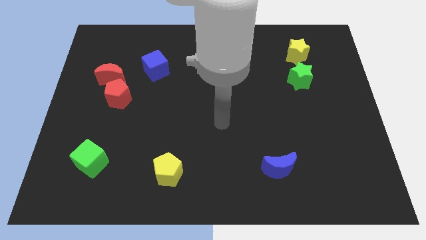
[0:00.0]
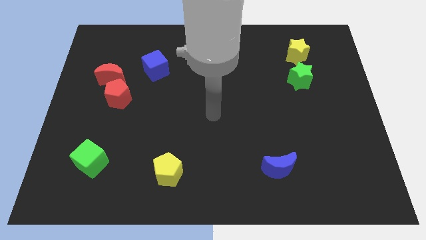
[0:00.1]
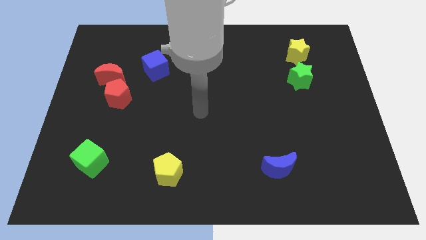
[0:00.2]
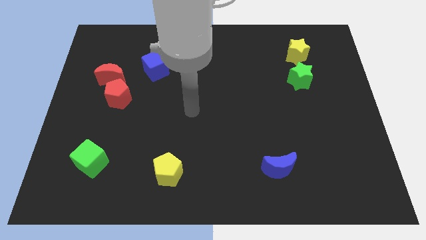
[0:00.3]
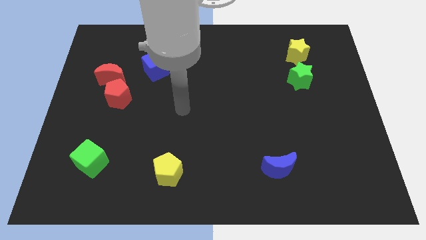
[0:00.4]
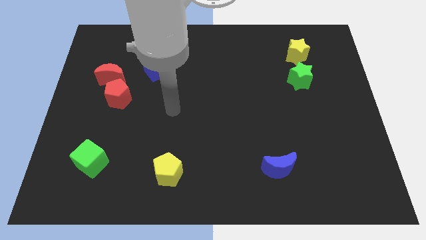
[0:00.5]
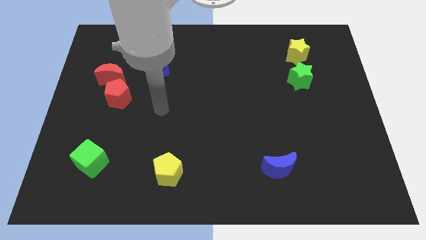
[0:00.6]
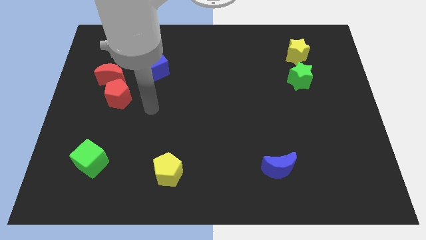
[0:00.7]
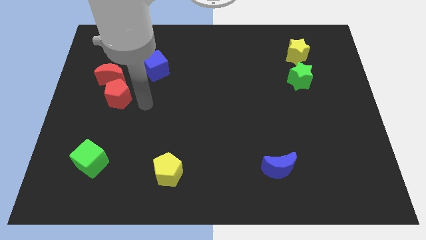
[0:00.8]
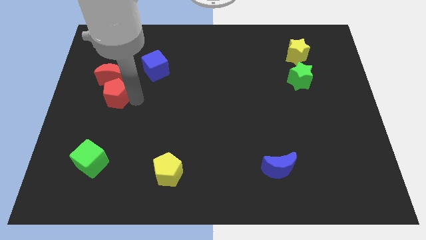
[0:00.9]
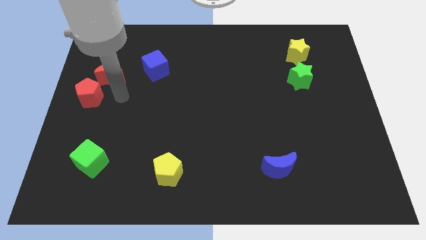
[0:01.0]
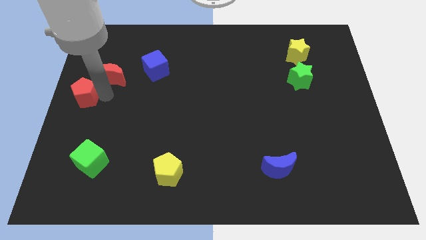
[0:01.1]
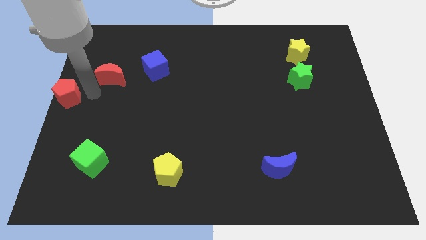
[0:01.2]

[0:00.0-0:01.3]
move the red moon away from the red pentagon

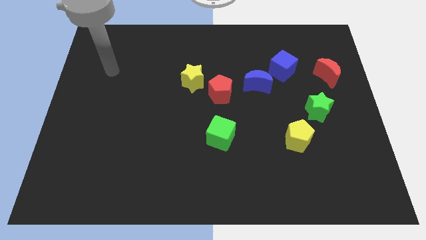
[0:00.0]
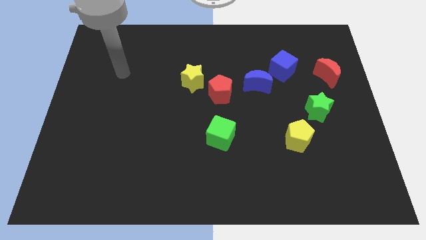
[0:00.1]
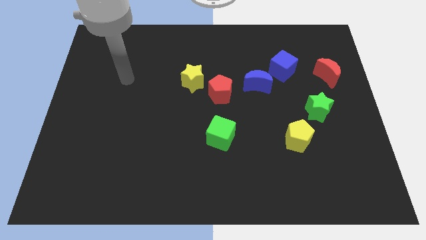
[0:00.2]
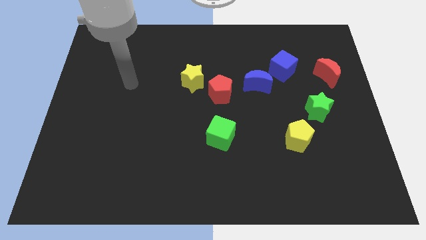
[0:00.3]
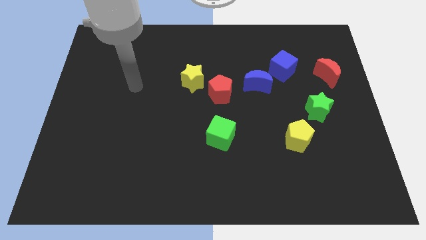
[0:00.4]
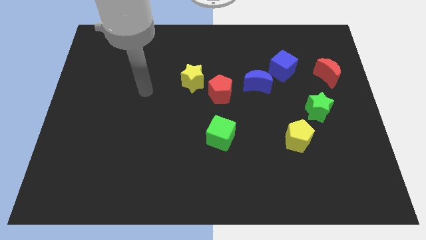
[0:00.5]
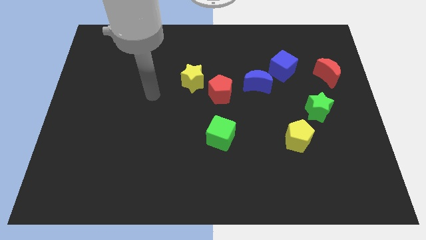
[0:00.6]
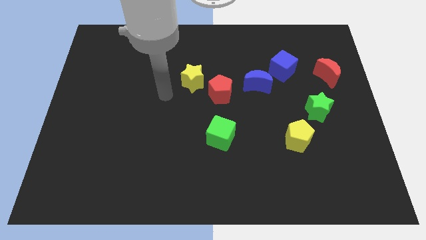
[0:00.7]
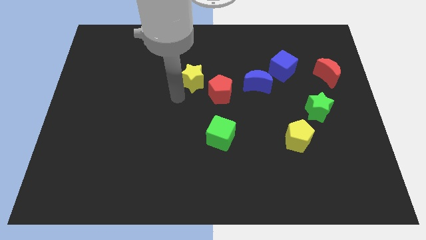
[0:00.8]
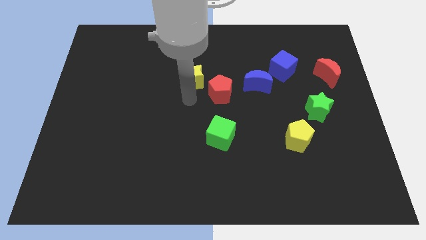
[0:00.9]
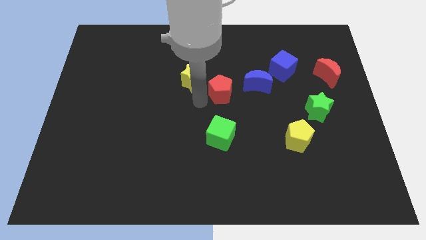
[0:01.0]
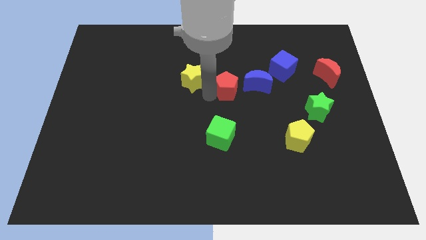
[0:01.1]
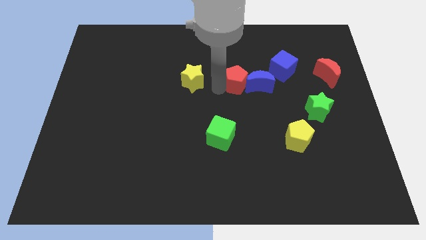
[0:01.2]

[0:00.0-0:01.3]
pull the yellow star apart from the red pentagon

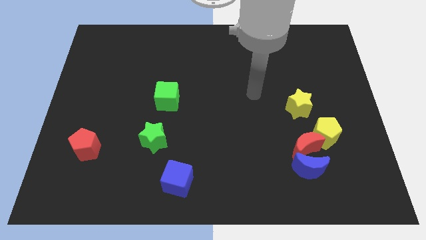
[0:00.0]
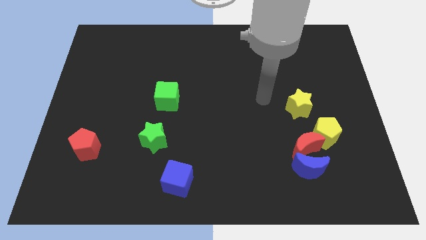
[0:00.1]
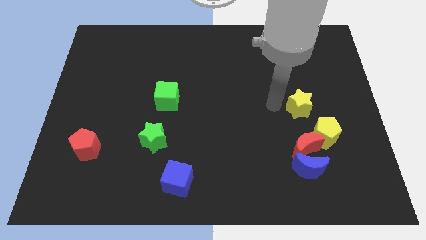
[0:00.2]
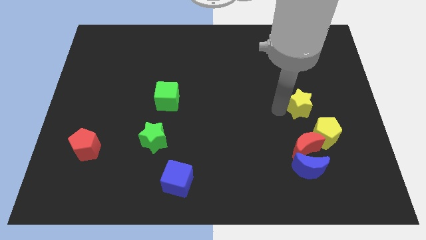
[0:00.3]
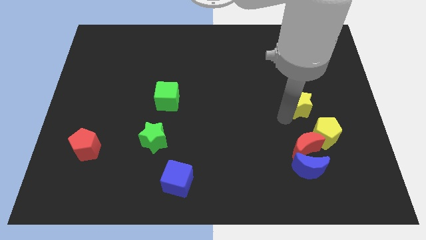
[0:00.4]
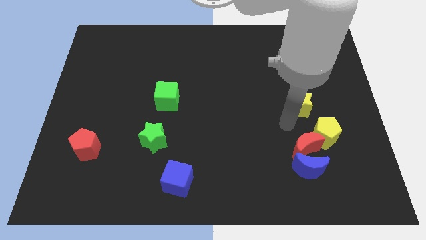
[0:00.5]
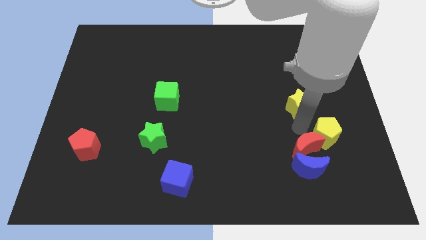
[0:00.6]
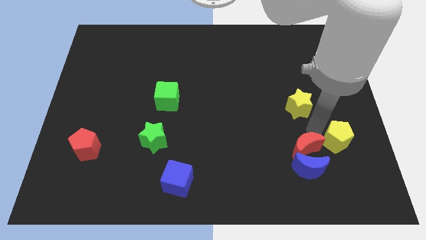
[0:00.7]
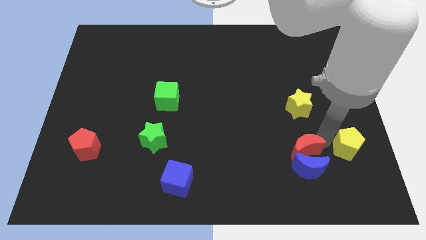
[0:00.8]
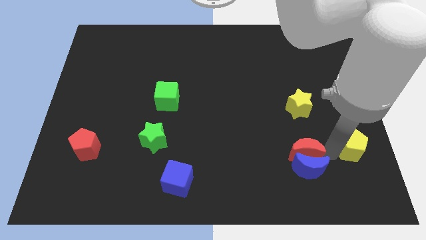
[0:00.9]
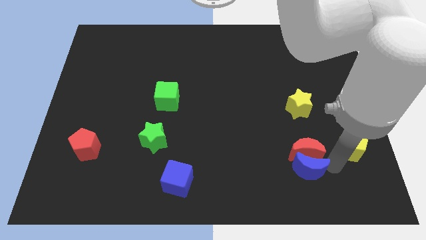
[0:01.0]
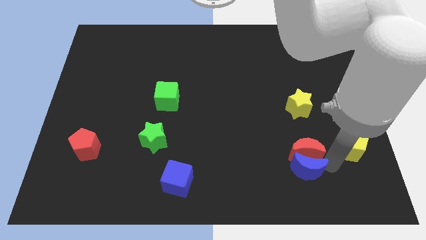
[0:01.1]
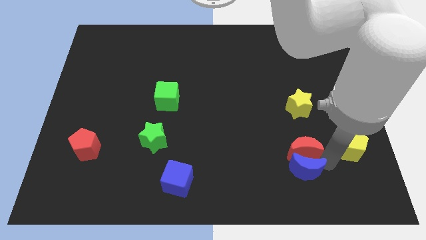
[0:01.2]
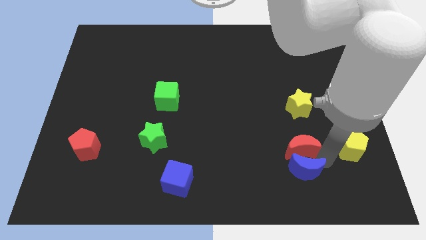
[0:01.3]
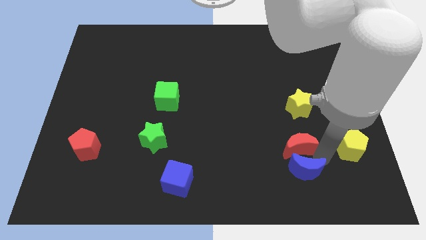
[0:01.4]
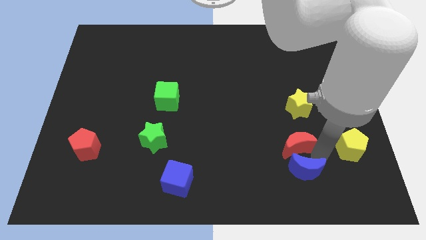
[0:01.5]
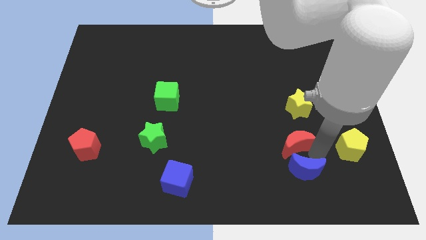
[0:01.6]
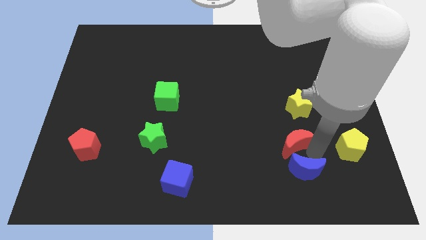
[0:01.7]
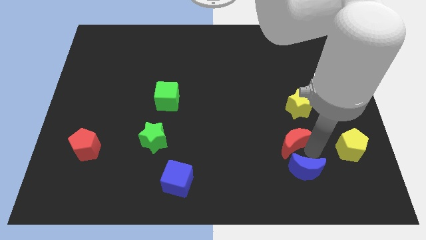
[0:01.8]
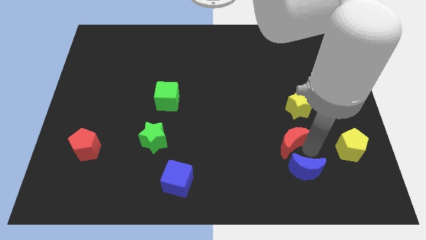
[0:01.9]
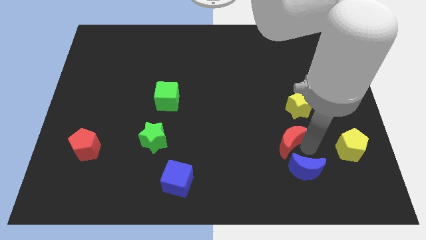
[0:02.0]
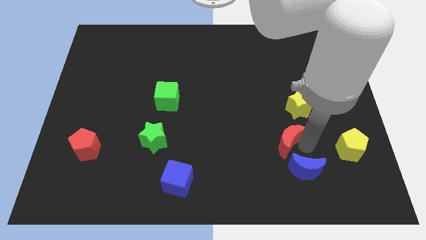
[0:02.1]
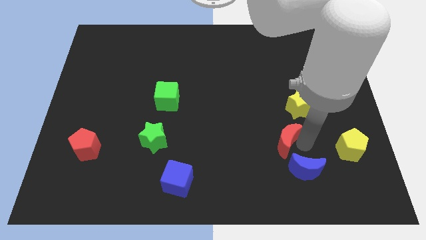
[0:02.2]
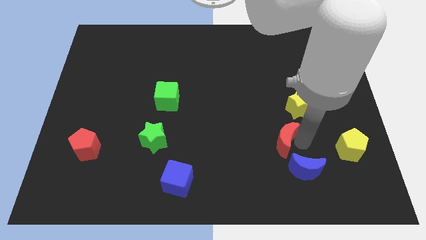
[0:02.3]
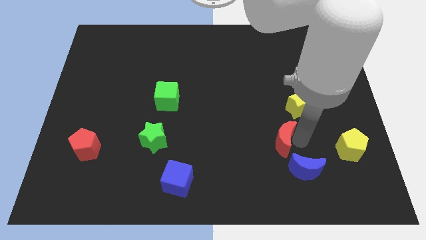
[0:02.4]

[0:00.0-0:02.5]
move the red moon away from the blue moon and yellow pentagon

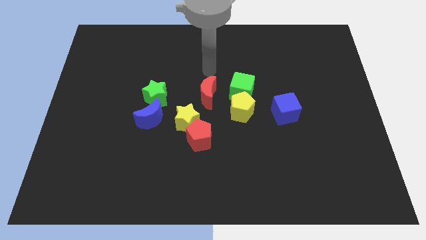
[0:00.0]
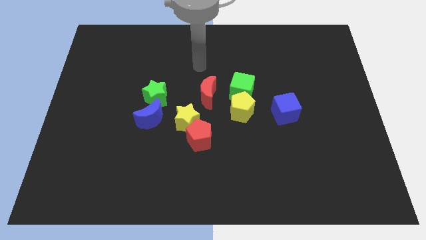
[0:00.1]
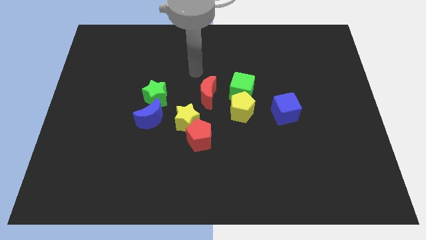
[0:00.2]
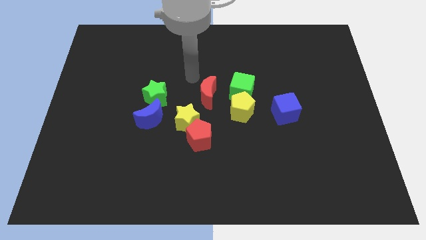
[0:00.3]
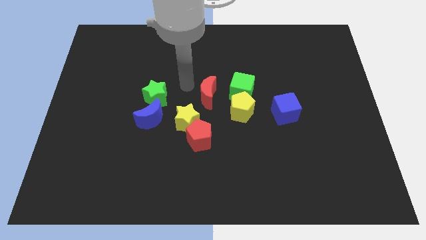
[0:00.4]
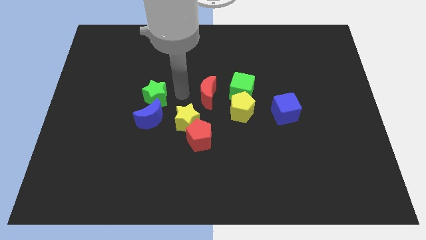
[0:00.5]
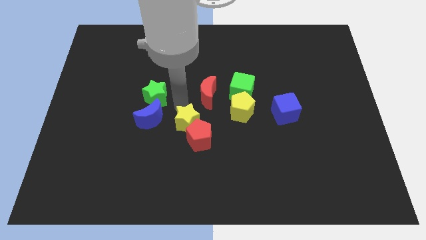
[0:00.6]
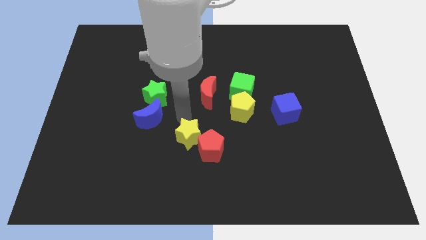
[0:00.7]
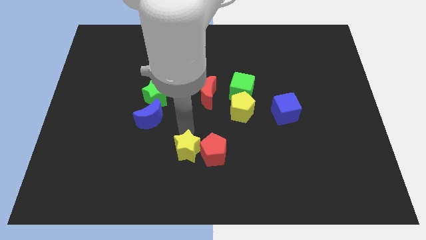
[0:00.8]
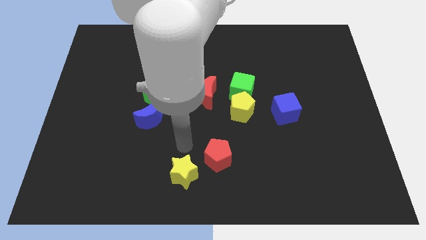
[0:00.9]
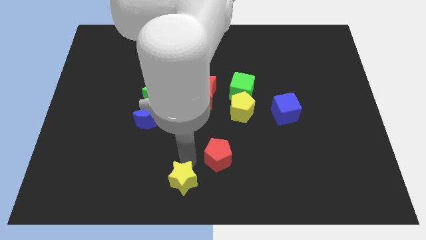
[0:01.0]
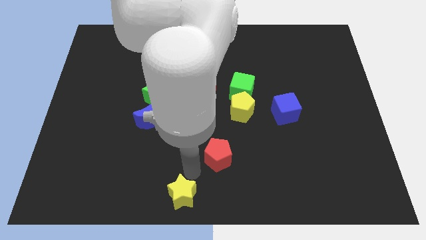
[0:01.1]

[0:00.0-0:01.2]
move the red pentagon away from the yellow star

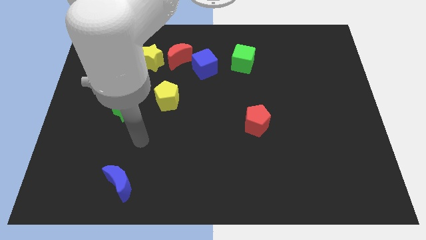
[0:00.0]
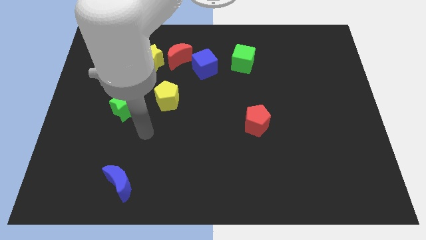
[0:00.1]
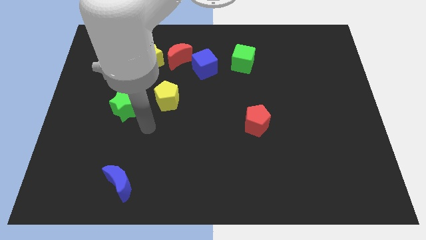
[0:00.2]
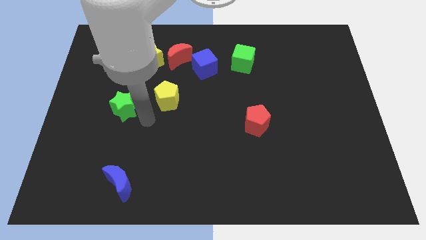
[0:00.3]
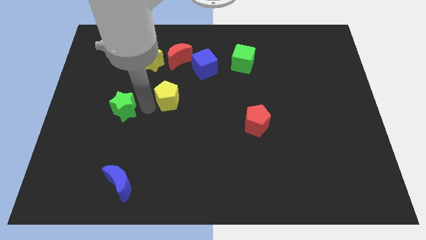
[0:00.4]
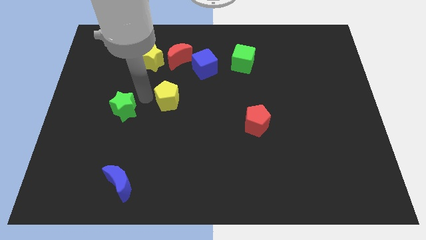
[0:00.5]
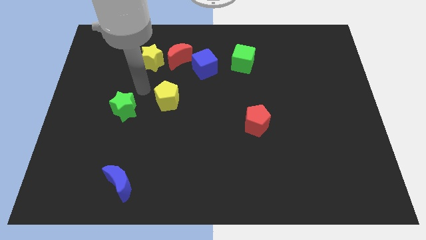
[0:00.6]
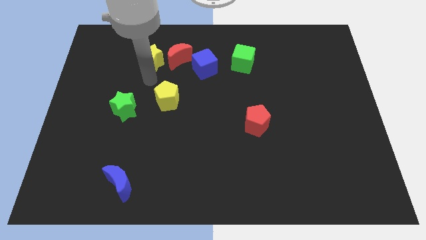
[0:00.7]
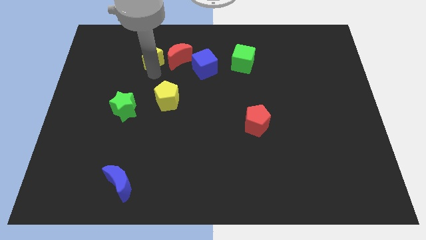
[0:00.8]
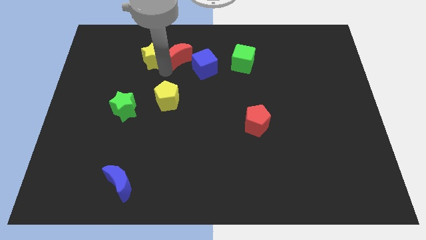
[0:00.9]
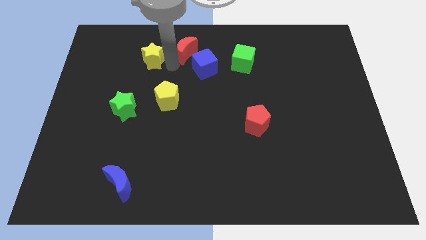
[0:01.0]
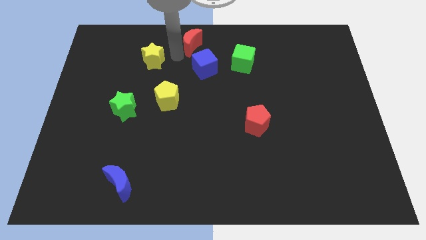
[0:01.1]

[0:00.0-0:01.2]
pull the yellow star apart from the red moon

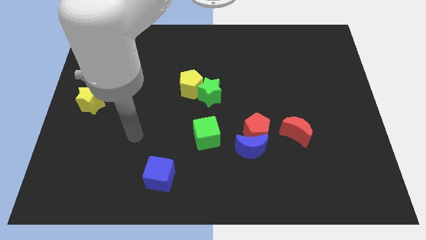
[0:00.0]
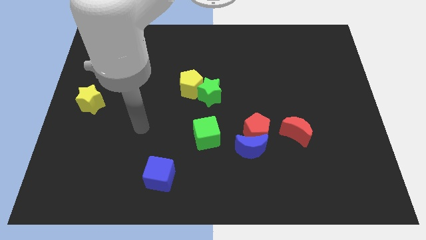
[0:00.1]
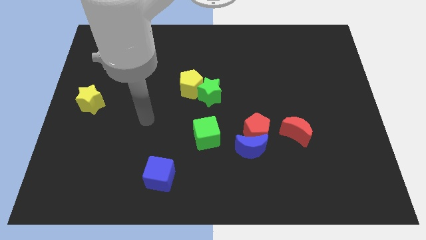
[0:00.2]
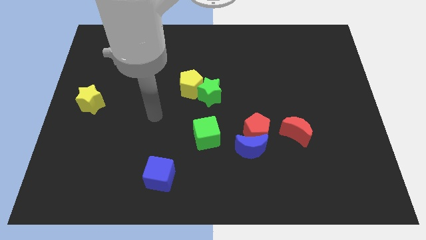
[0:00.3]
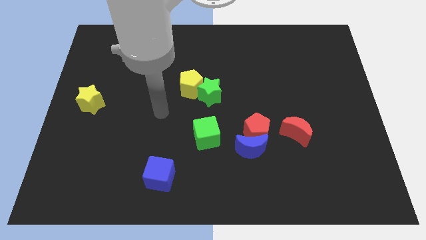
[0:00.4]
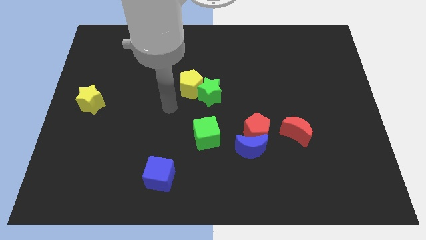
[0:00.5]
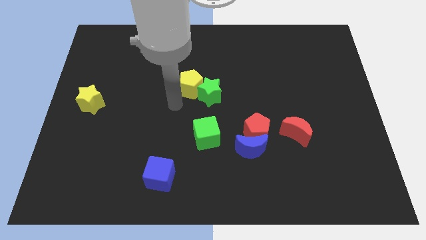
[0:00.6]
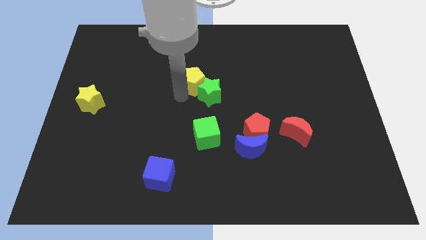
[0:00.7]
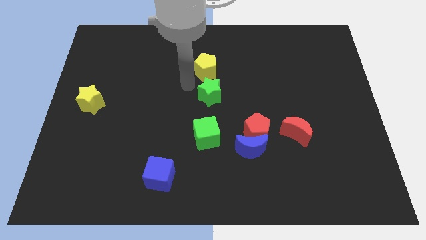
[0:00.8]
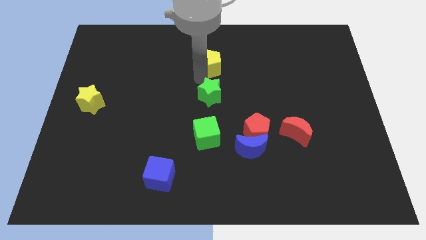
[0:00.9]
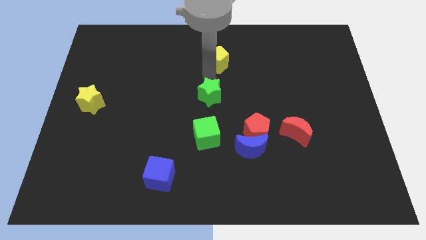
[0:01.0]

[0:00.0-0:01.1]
pull the green star apart from the yellow pentagon

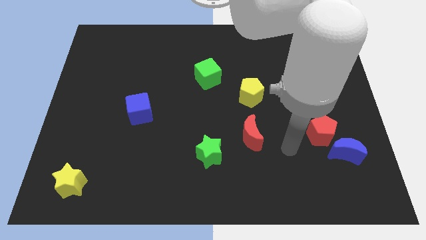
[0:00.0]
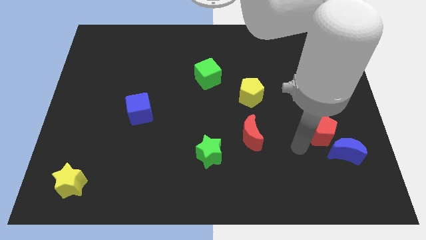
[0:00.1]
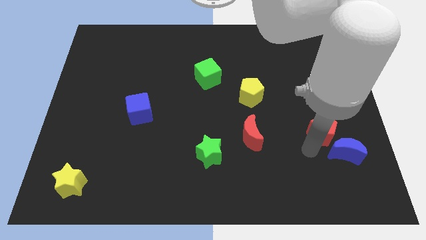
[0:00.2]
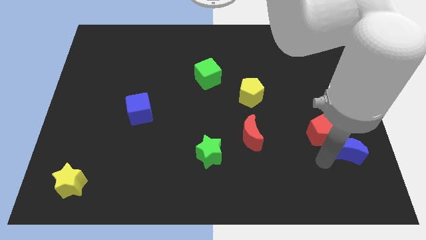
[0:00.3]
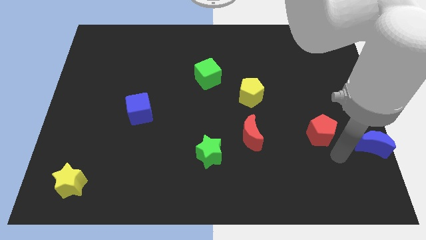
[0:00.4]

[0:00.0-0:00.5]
pull the red pentagon apart from the blue moon

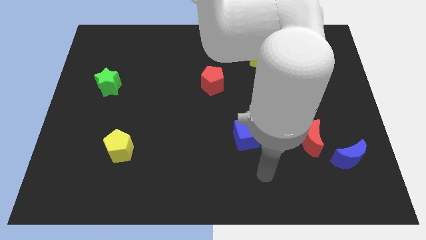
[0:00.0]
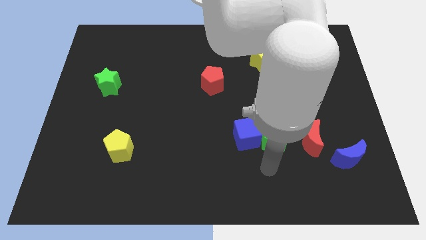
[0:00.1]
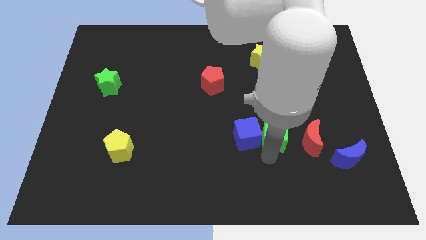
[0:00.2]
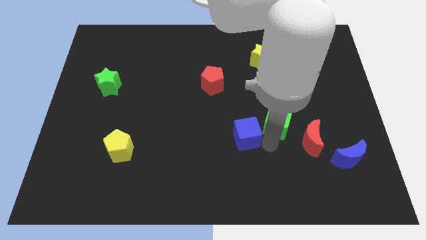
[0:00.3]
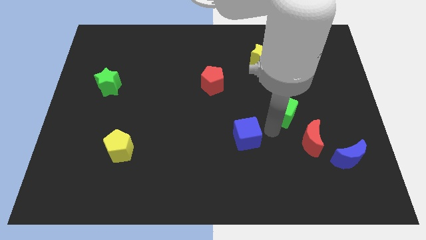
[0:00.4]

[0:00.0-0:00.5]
pull the blue cube apart from the green cube
